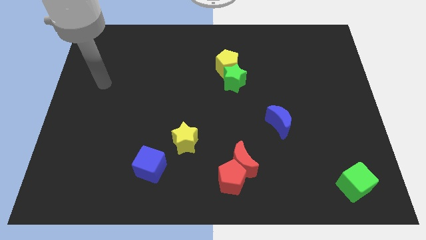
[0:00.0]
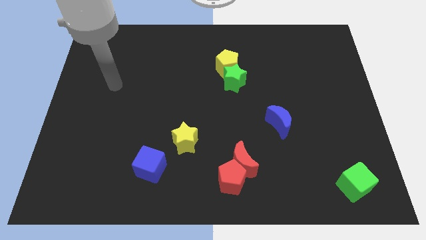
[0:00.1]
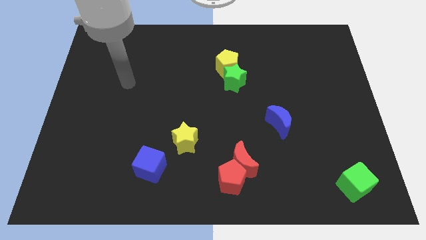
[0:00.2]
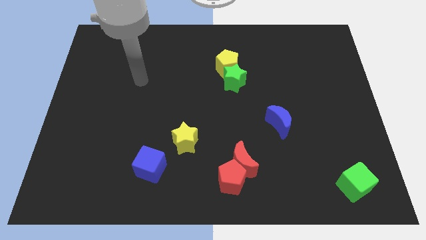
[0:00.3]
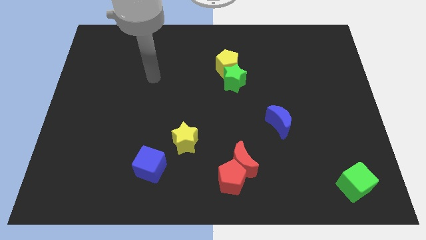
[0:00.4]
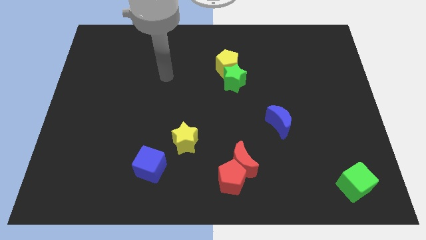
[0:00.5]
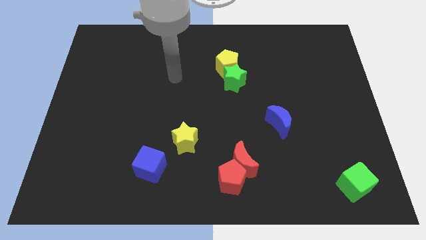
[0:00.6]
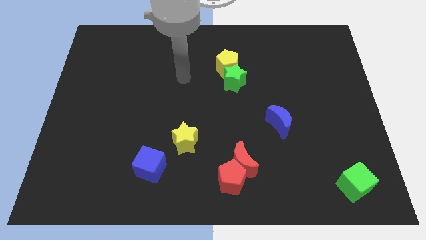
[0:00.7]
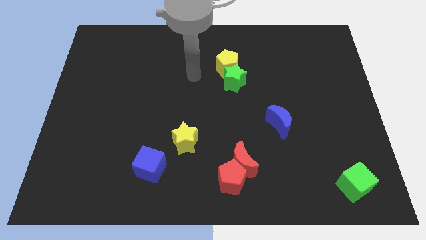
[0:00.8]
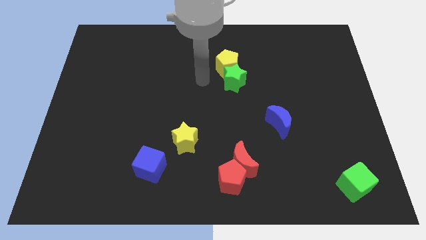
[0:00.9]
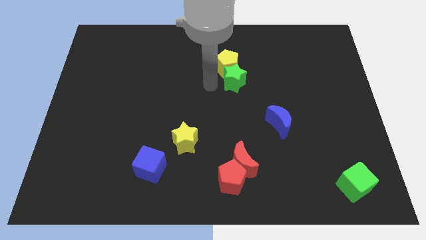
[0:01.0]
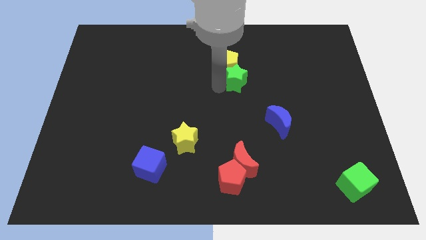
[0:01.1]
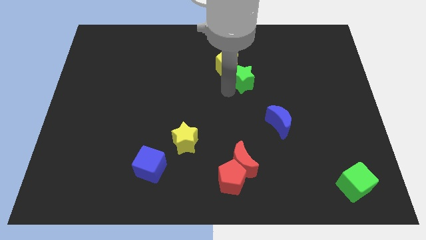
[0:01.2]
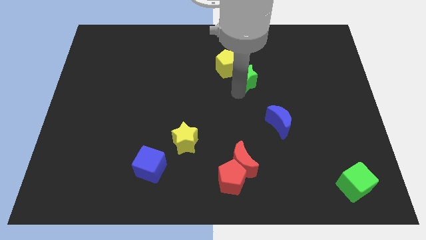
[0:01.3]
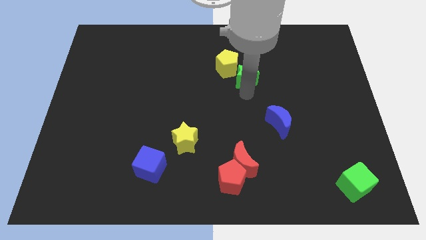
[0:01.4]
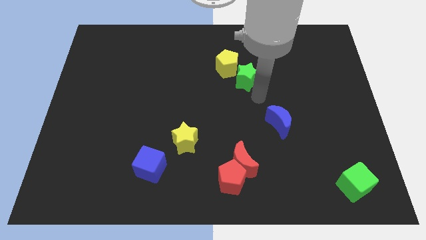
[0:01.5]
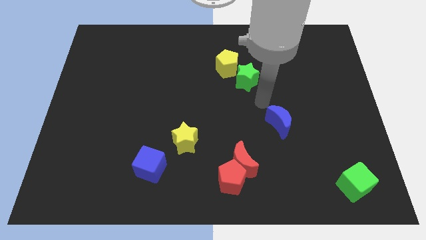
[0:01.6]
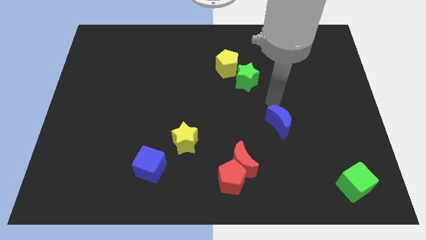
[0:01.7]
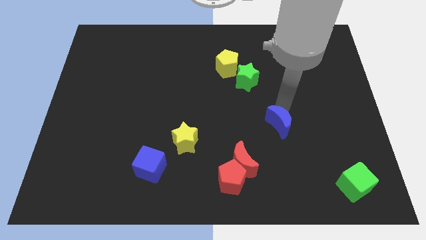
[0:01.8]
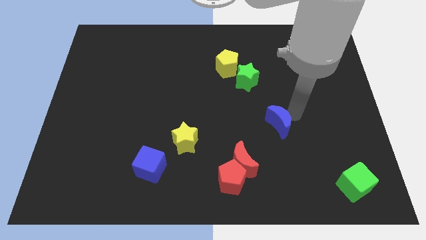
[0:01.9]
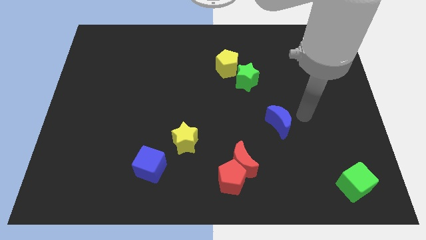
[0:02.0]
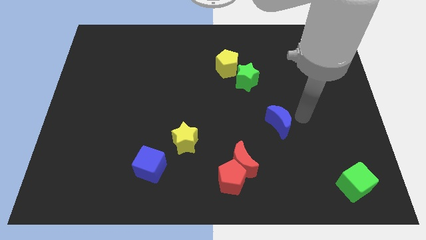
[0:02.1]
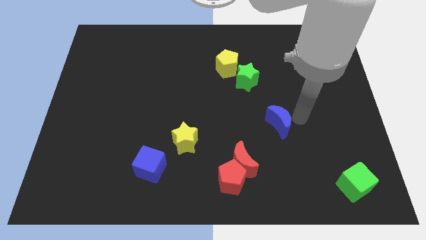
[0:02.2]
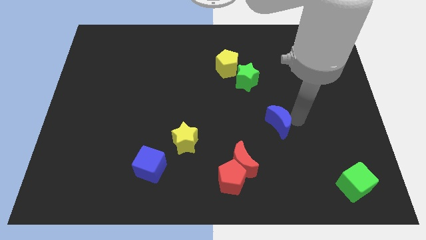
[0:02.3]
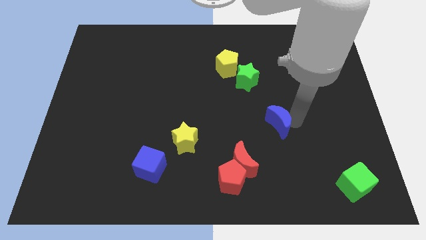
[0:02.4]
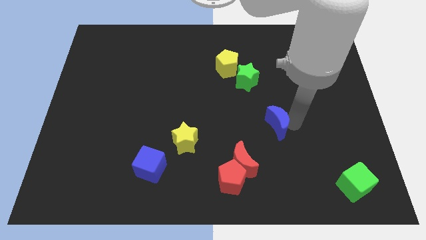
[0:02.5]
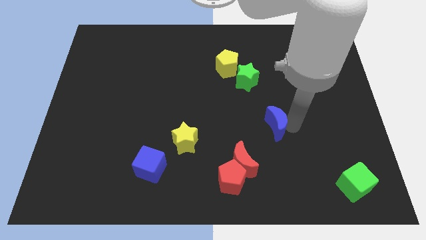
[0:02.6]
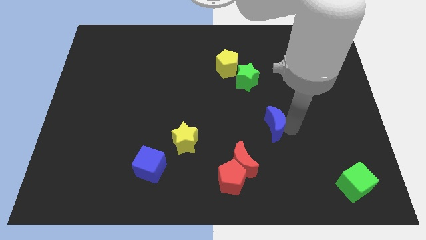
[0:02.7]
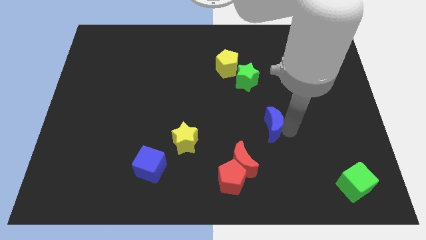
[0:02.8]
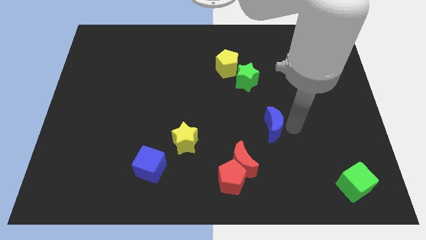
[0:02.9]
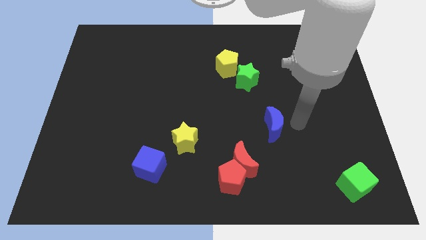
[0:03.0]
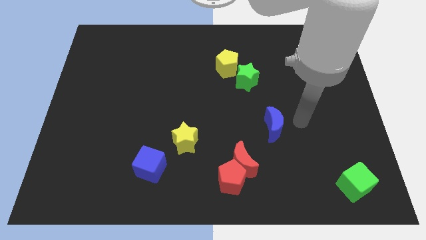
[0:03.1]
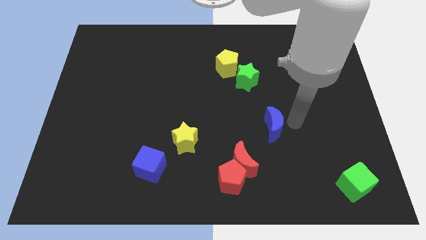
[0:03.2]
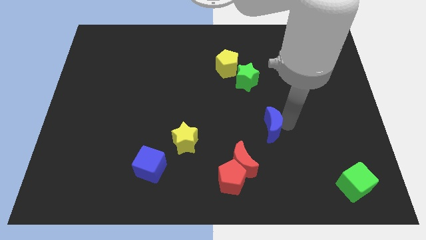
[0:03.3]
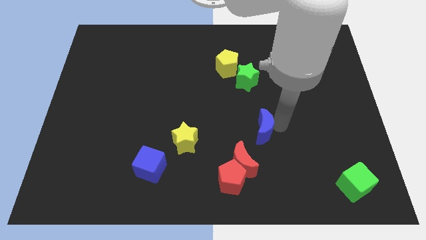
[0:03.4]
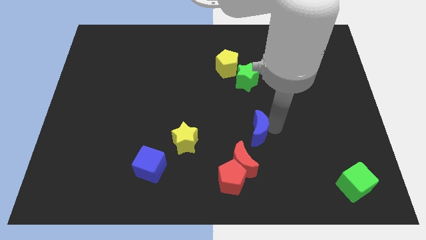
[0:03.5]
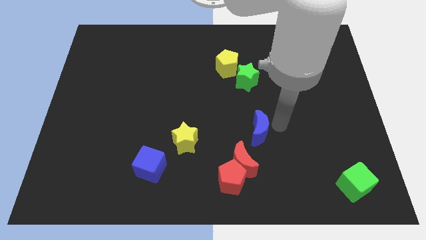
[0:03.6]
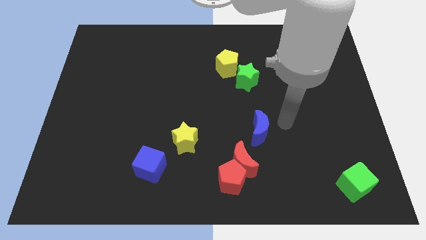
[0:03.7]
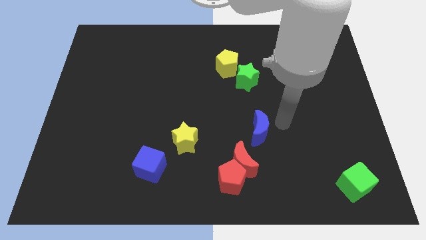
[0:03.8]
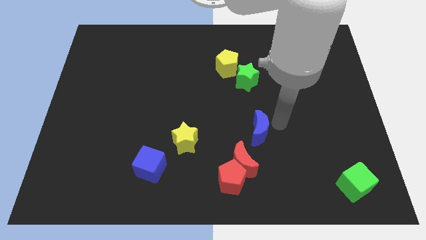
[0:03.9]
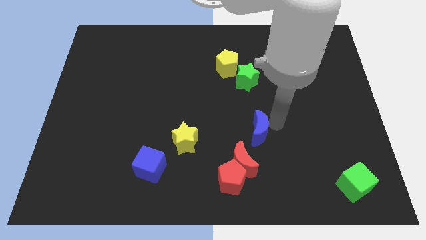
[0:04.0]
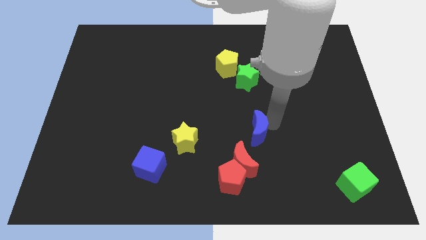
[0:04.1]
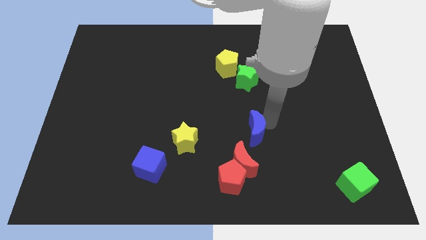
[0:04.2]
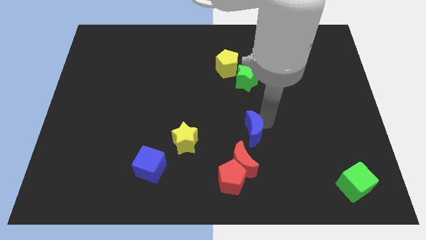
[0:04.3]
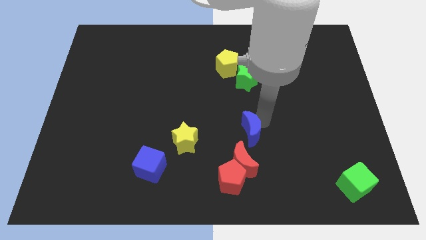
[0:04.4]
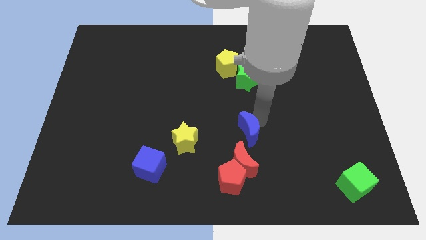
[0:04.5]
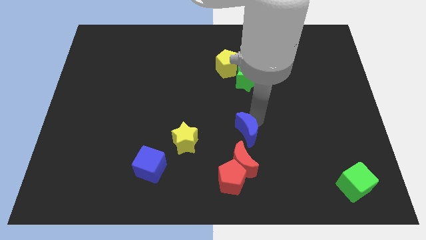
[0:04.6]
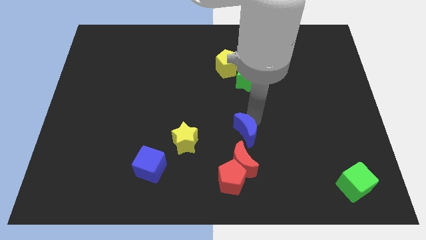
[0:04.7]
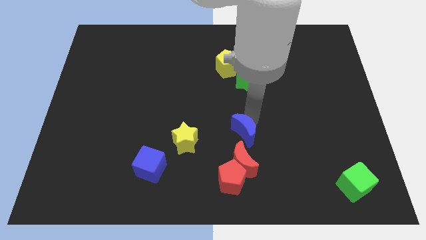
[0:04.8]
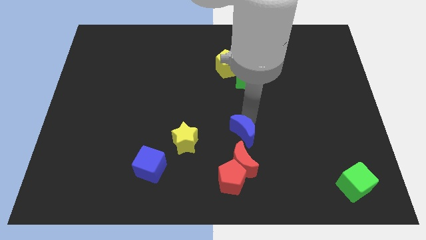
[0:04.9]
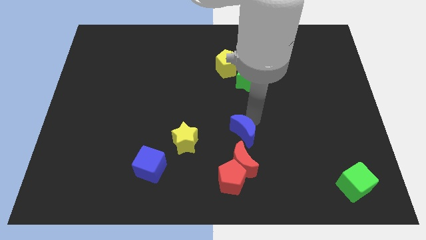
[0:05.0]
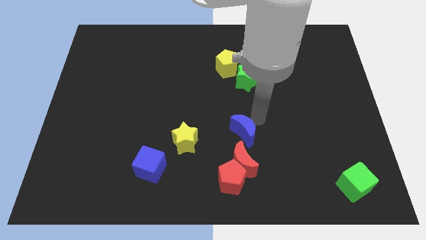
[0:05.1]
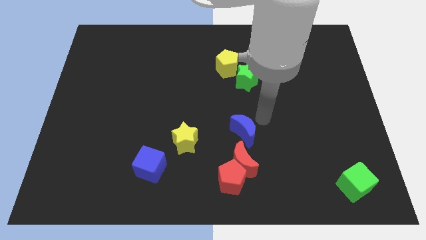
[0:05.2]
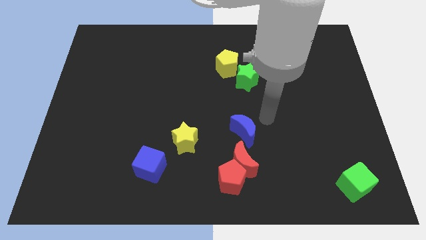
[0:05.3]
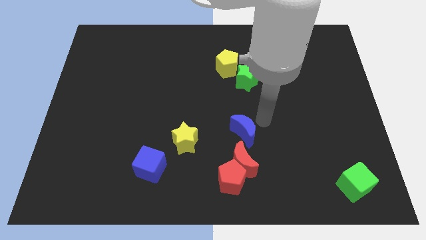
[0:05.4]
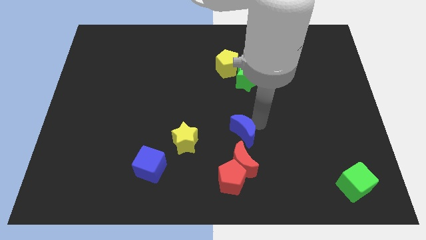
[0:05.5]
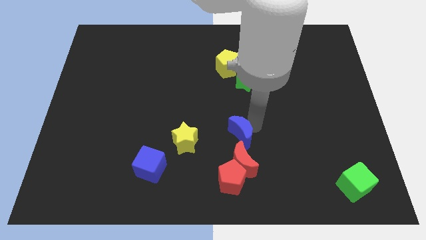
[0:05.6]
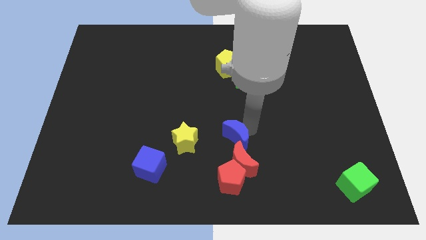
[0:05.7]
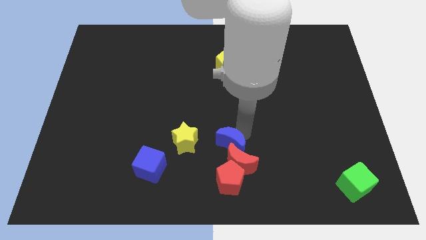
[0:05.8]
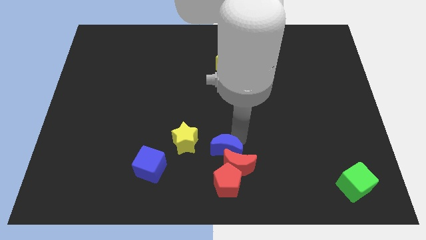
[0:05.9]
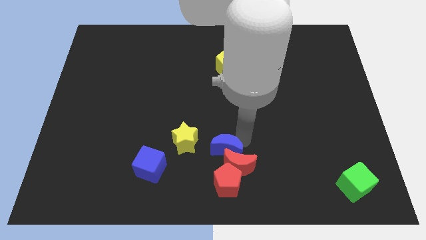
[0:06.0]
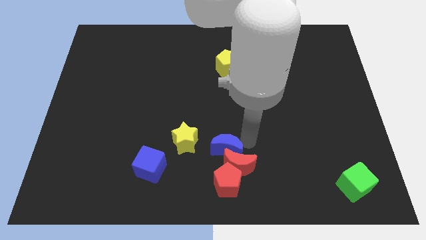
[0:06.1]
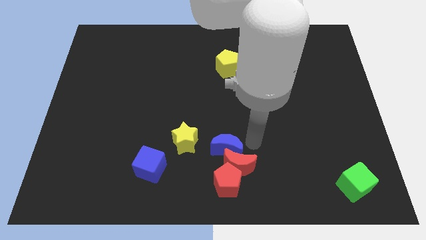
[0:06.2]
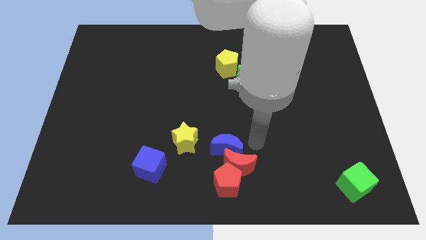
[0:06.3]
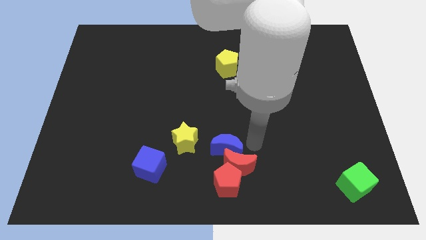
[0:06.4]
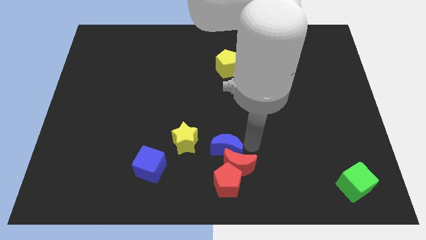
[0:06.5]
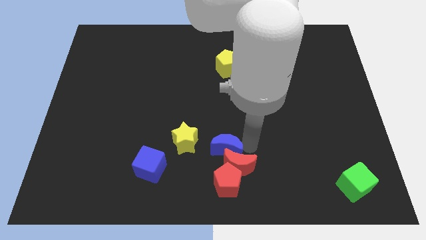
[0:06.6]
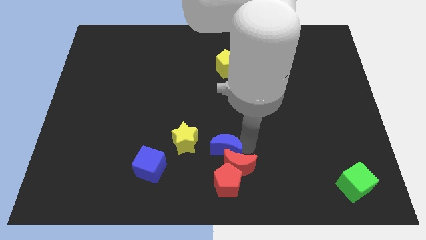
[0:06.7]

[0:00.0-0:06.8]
put the blue moon to the left side of the red moon
